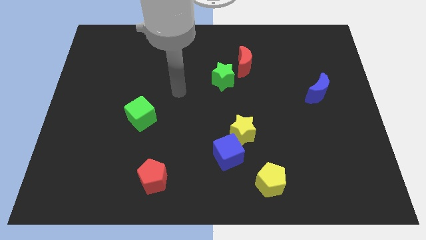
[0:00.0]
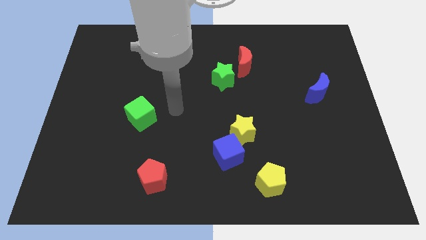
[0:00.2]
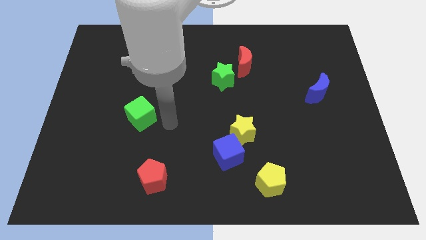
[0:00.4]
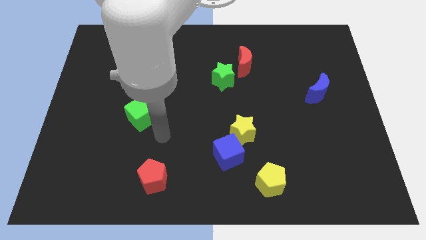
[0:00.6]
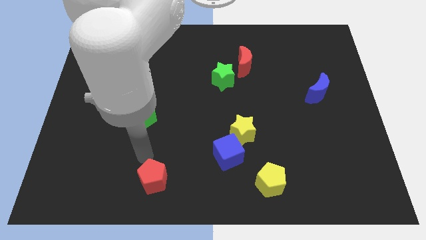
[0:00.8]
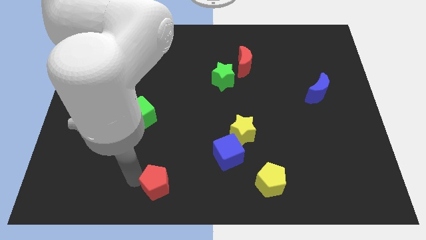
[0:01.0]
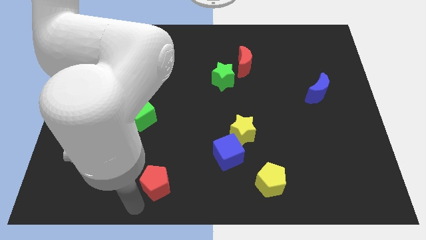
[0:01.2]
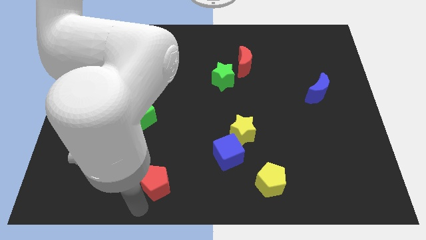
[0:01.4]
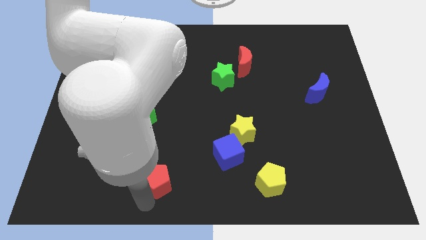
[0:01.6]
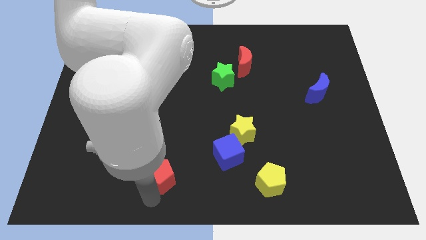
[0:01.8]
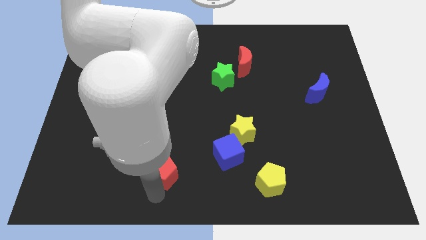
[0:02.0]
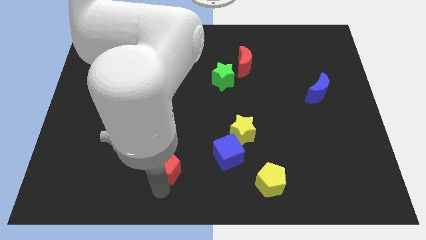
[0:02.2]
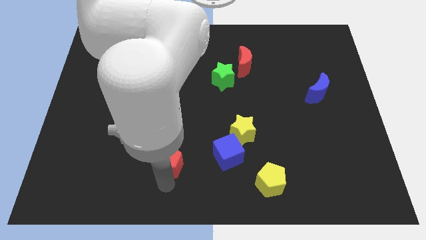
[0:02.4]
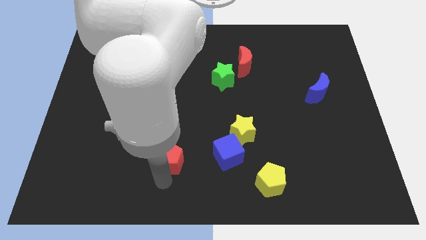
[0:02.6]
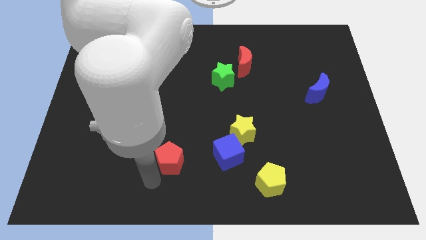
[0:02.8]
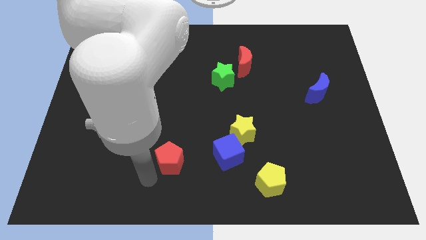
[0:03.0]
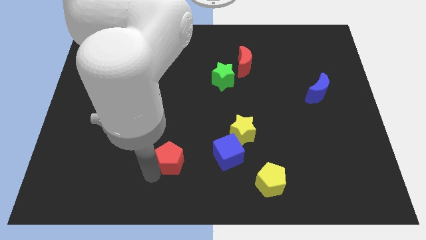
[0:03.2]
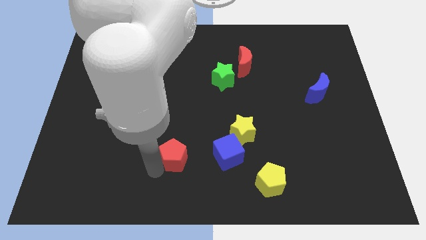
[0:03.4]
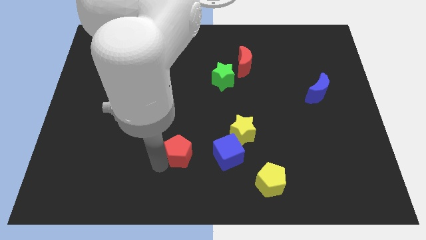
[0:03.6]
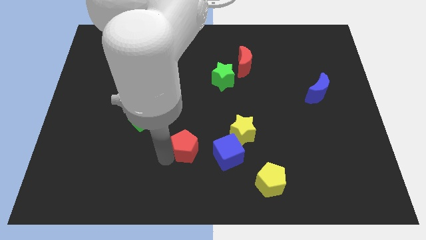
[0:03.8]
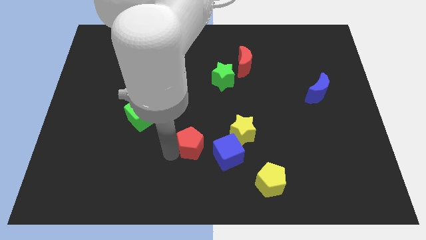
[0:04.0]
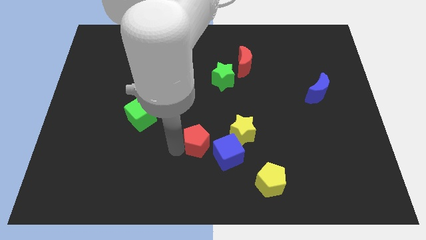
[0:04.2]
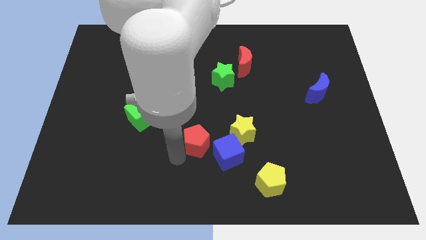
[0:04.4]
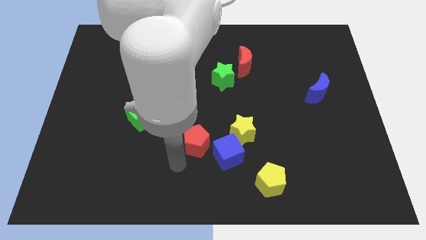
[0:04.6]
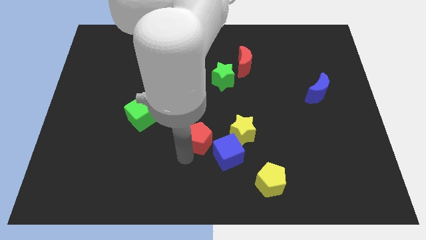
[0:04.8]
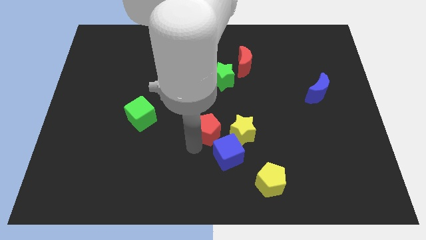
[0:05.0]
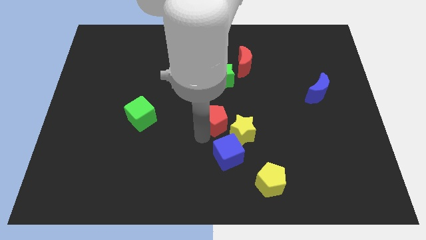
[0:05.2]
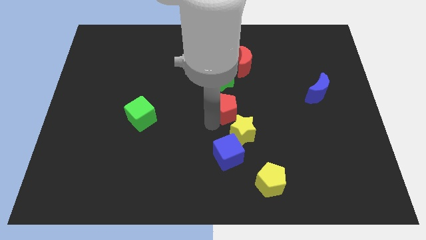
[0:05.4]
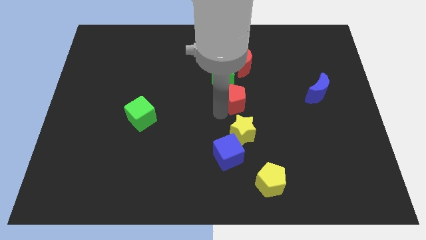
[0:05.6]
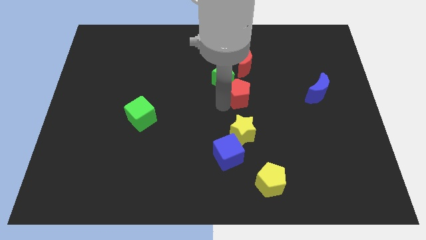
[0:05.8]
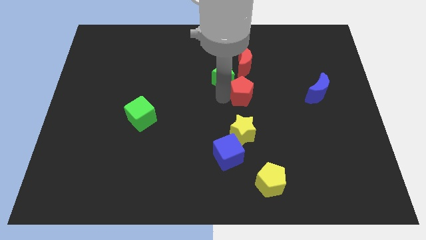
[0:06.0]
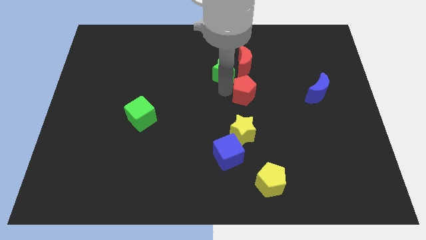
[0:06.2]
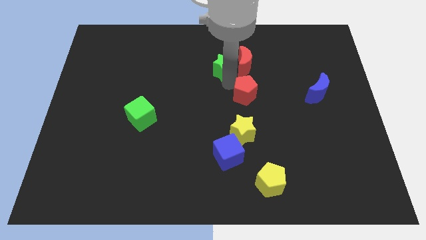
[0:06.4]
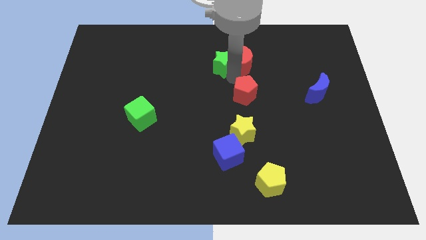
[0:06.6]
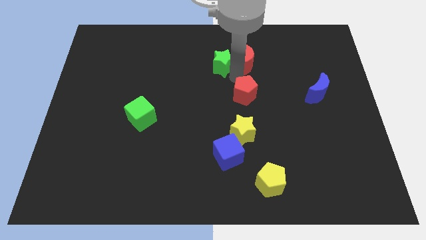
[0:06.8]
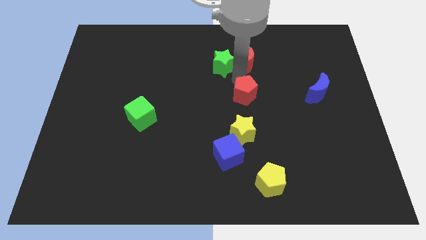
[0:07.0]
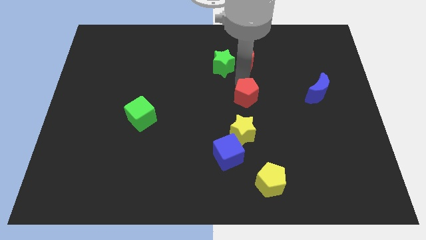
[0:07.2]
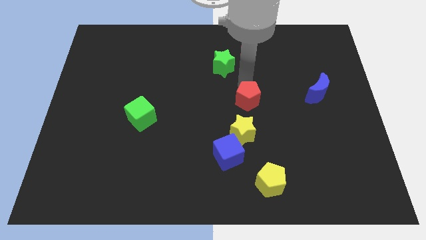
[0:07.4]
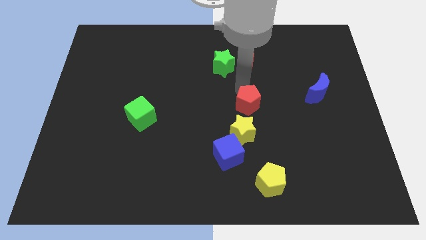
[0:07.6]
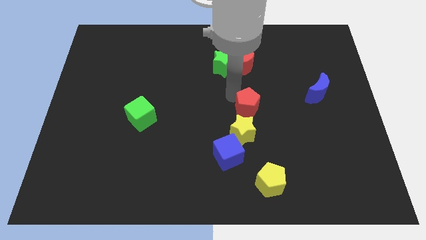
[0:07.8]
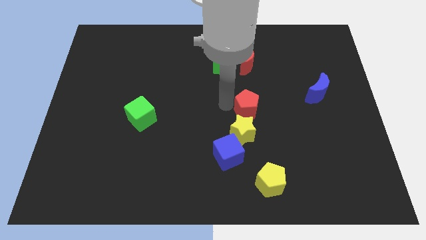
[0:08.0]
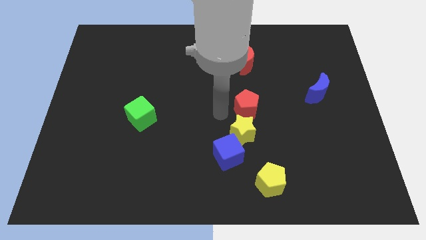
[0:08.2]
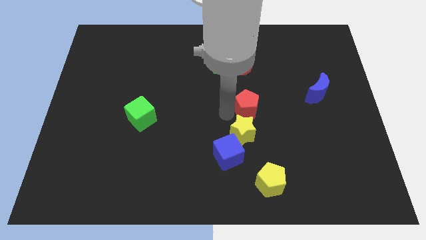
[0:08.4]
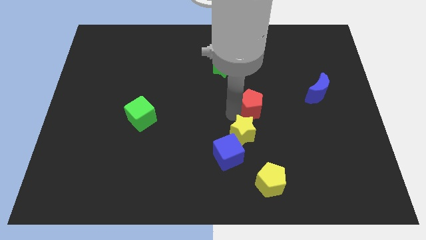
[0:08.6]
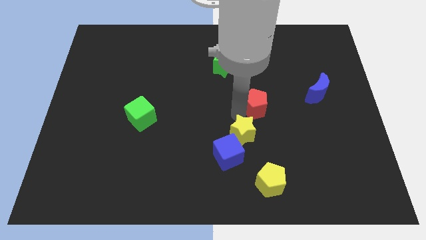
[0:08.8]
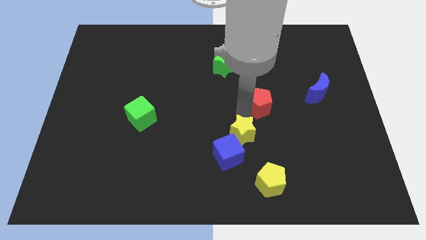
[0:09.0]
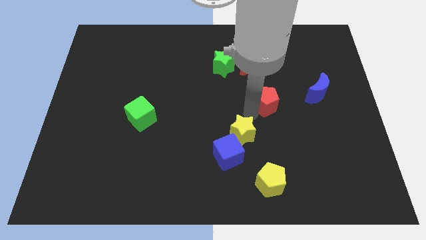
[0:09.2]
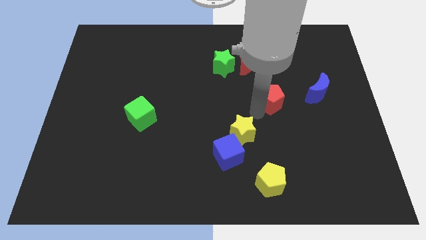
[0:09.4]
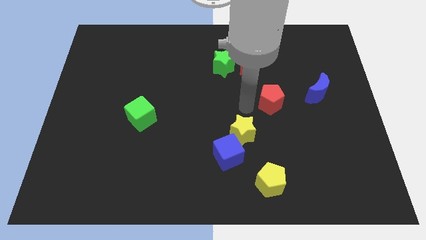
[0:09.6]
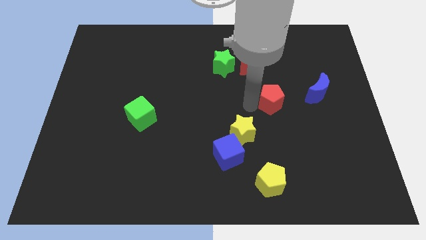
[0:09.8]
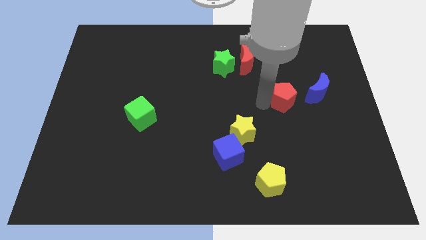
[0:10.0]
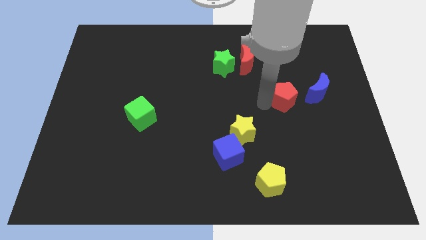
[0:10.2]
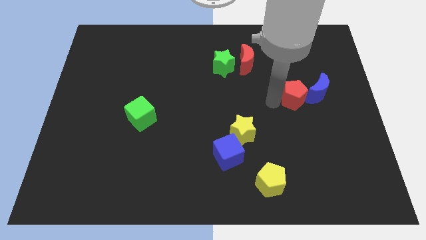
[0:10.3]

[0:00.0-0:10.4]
put the red pentagon next to the blue moon

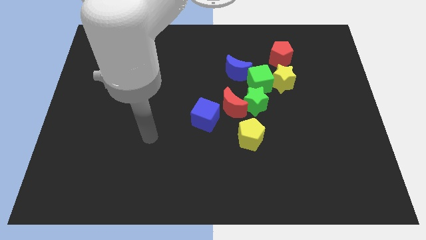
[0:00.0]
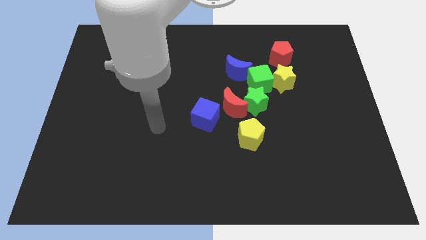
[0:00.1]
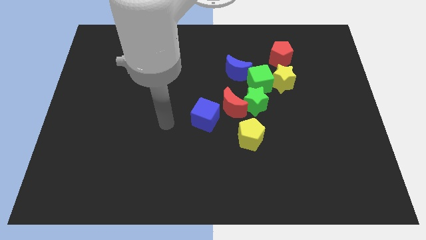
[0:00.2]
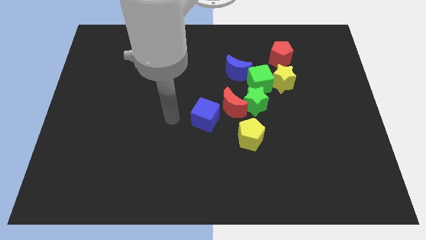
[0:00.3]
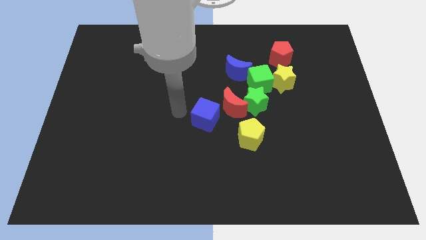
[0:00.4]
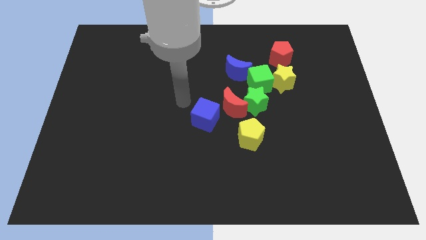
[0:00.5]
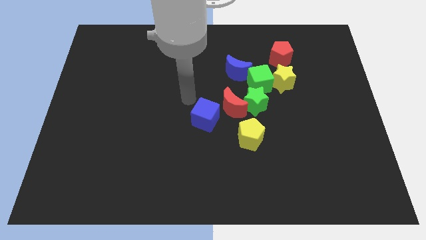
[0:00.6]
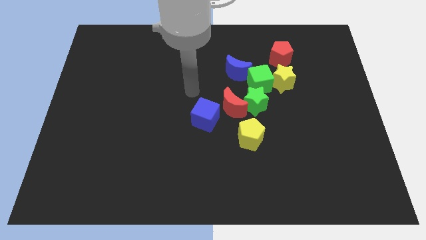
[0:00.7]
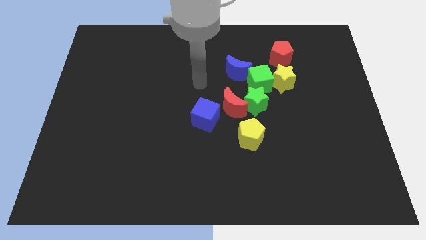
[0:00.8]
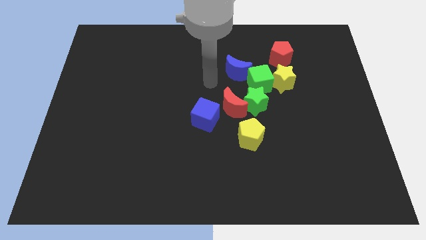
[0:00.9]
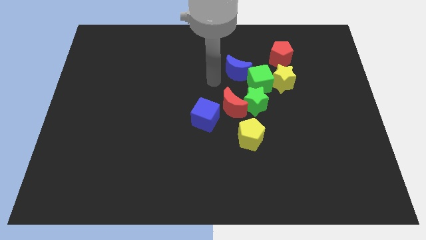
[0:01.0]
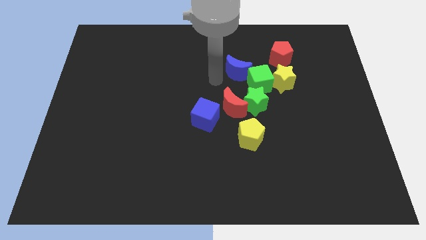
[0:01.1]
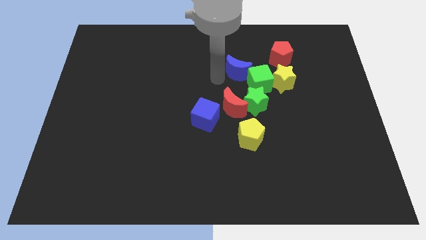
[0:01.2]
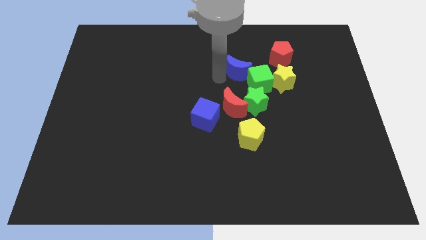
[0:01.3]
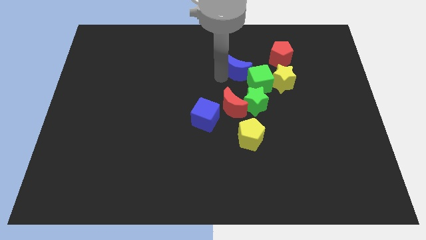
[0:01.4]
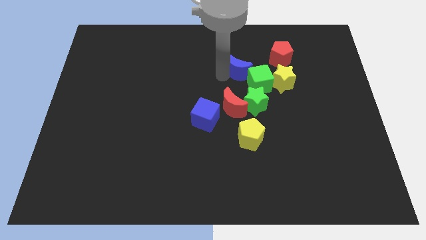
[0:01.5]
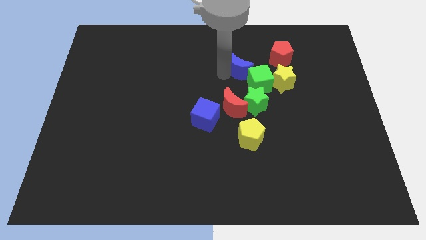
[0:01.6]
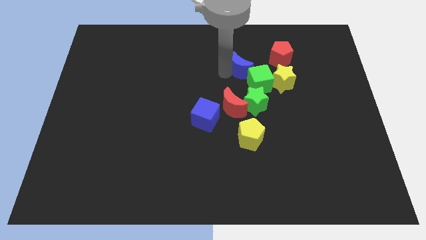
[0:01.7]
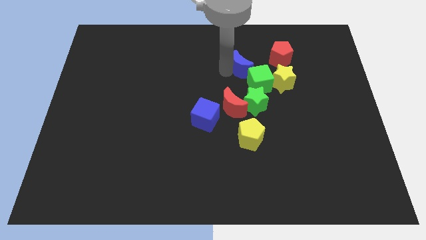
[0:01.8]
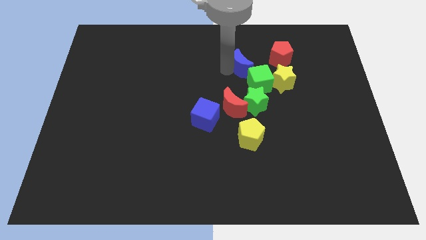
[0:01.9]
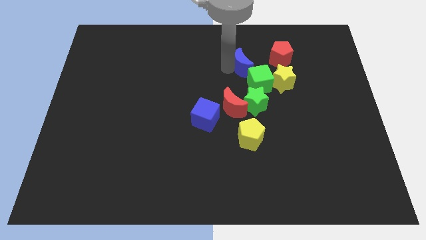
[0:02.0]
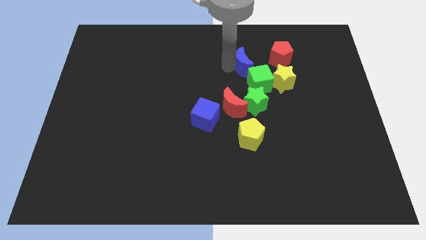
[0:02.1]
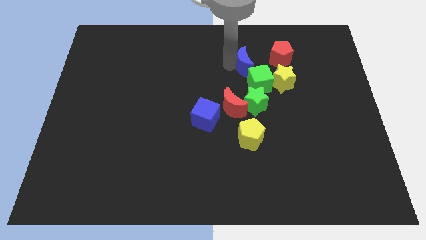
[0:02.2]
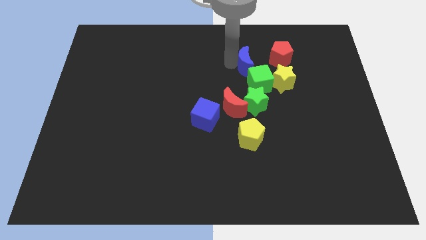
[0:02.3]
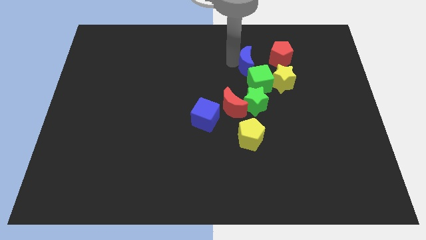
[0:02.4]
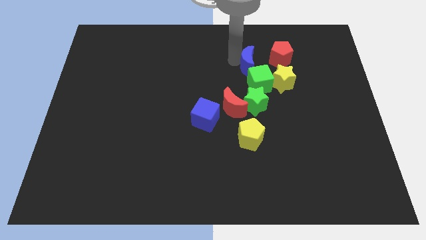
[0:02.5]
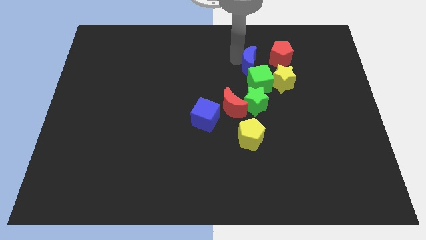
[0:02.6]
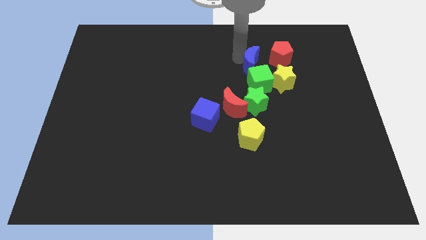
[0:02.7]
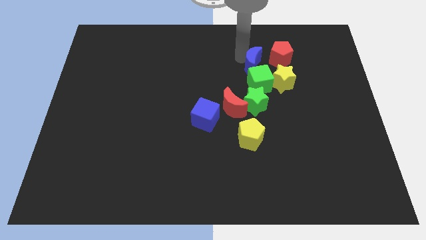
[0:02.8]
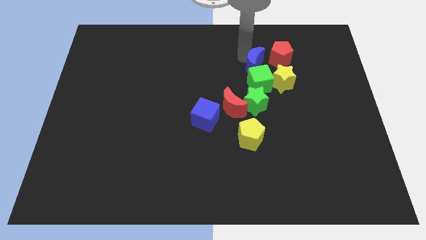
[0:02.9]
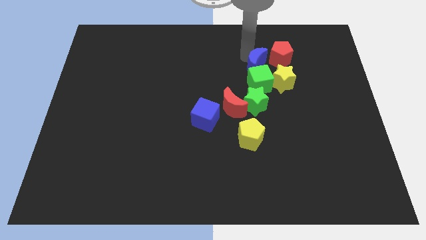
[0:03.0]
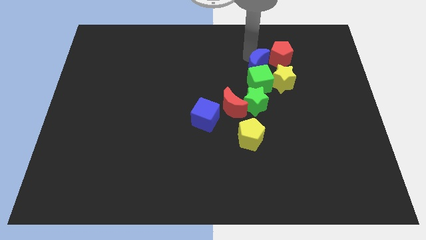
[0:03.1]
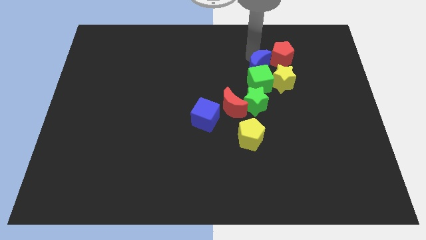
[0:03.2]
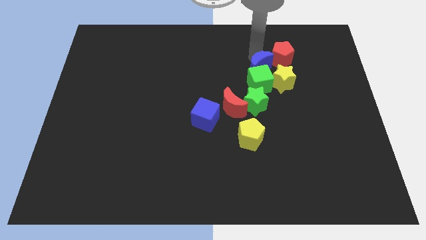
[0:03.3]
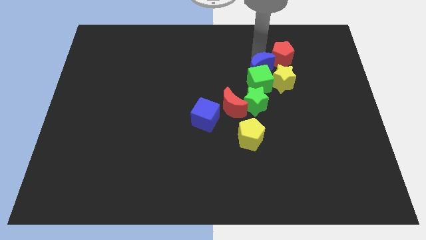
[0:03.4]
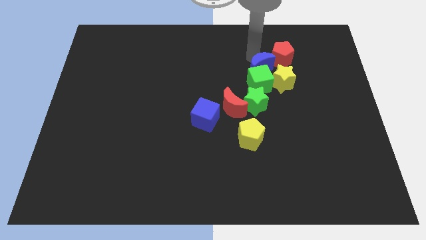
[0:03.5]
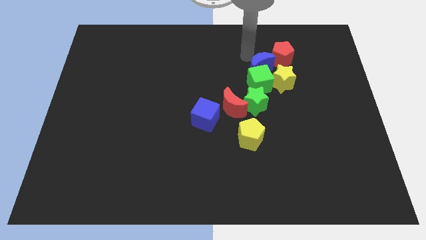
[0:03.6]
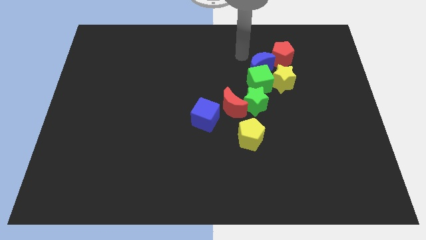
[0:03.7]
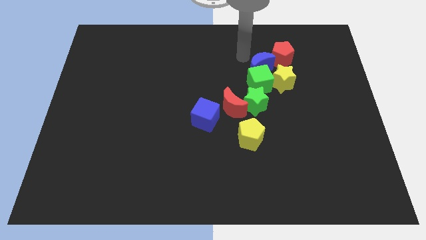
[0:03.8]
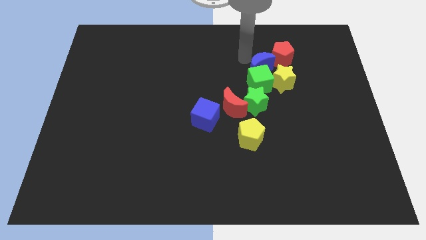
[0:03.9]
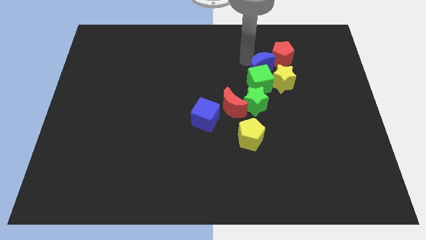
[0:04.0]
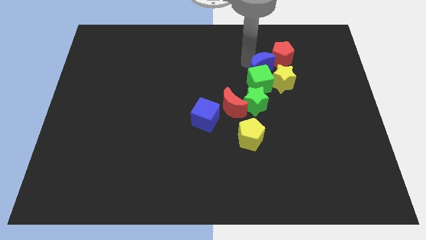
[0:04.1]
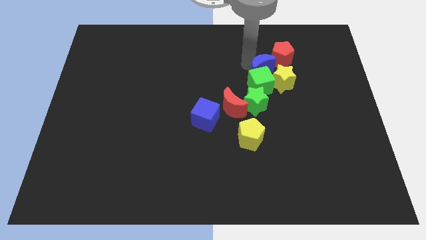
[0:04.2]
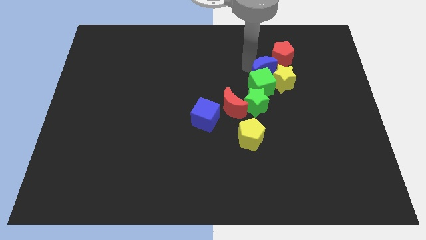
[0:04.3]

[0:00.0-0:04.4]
put the blue moon towards the yellow star
